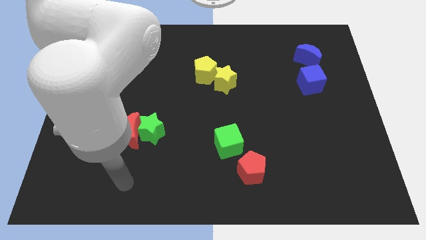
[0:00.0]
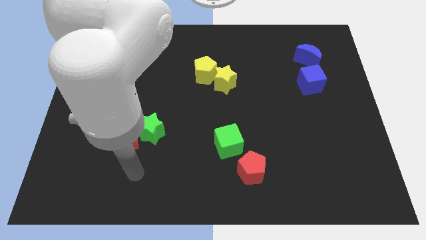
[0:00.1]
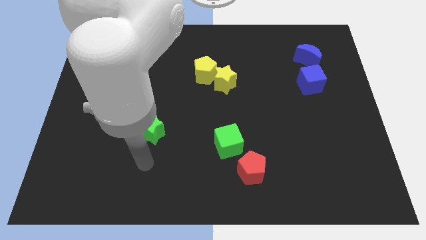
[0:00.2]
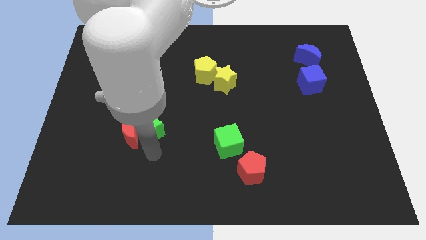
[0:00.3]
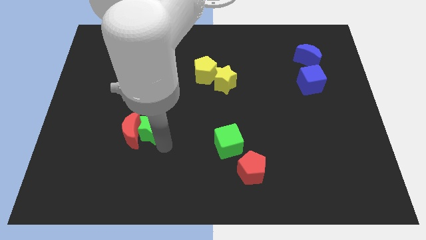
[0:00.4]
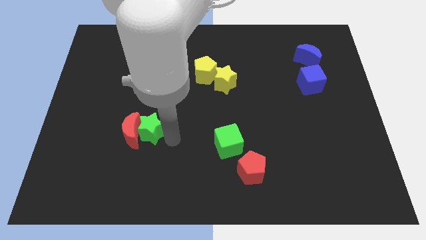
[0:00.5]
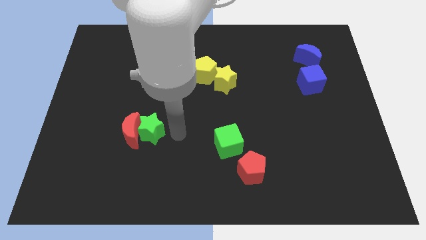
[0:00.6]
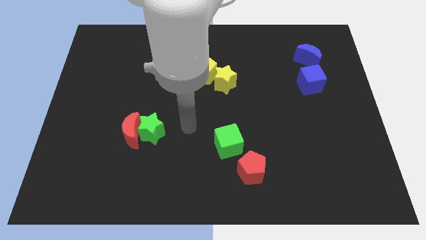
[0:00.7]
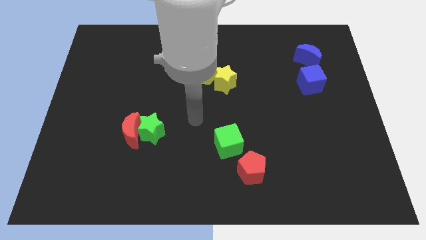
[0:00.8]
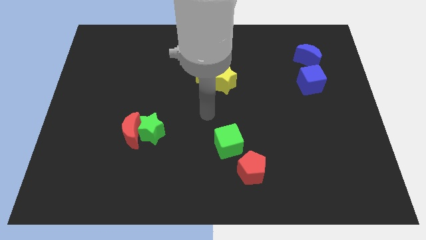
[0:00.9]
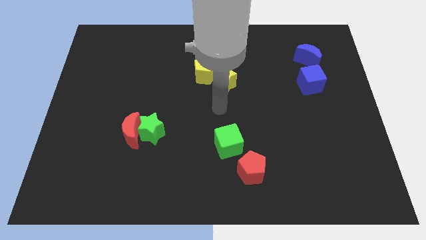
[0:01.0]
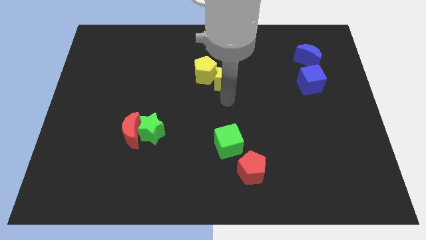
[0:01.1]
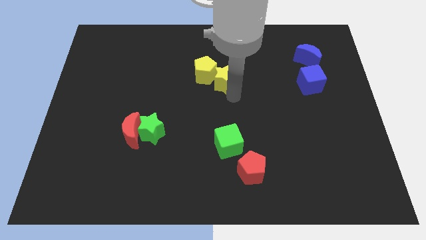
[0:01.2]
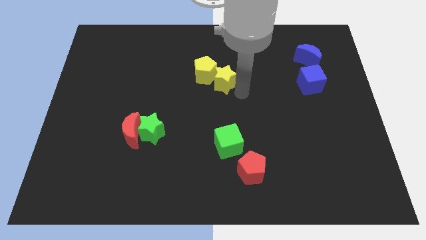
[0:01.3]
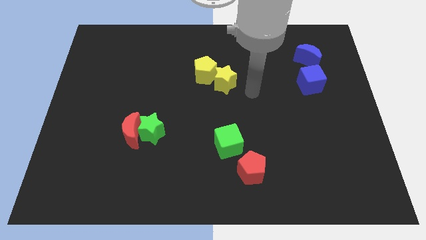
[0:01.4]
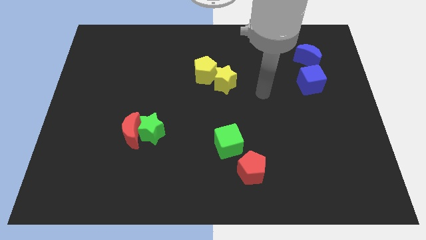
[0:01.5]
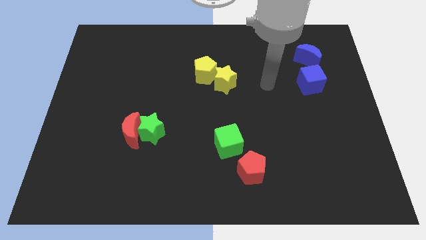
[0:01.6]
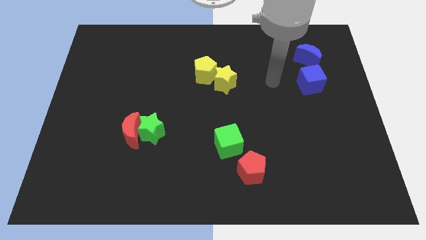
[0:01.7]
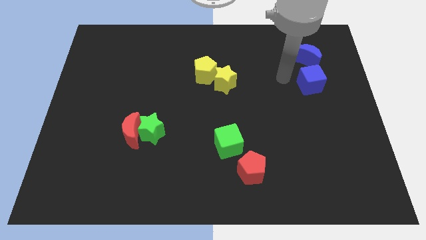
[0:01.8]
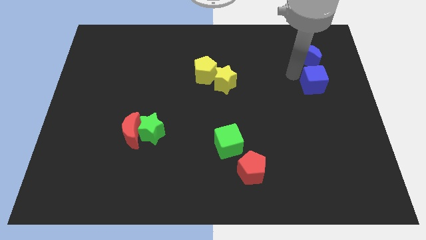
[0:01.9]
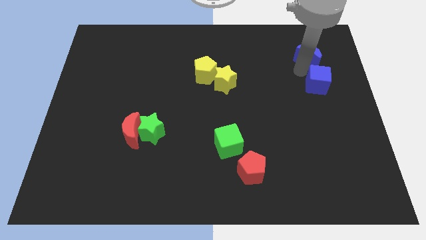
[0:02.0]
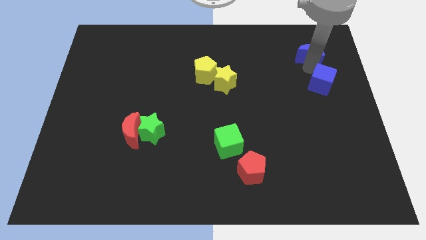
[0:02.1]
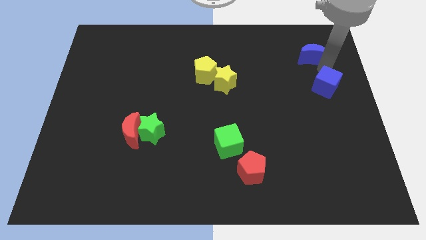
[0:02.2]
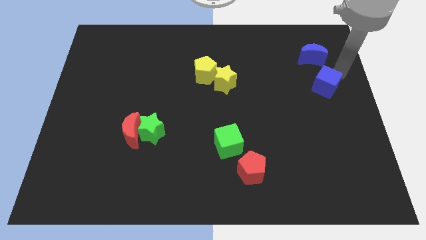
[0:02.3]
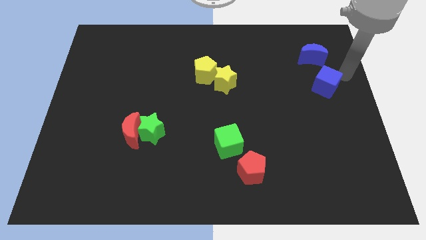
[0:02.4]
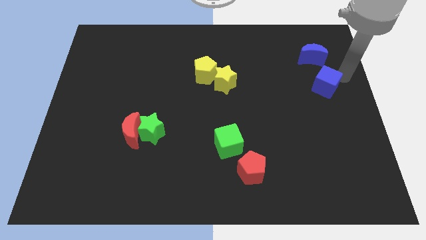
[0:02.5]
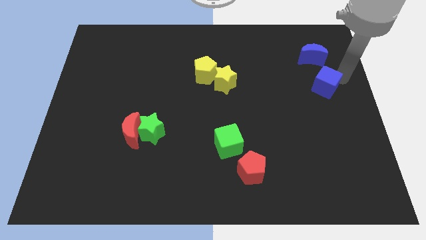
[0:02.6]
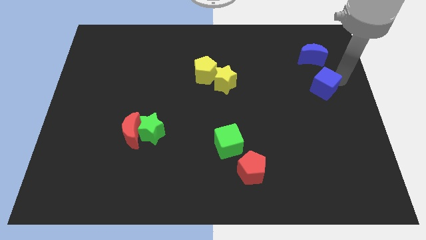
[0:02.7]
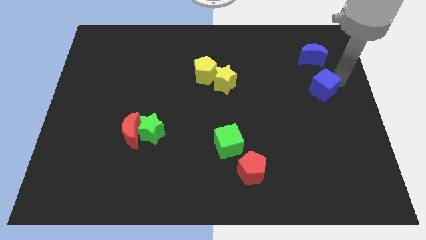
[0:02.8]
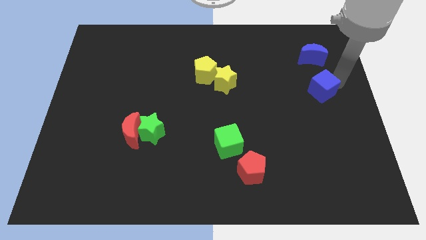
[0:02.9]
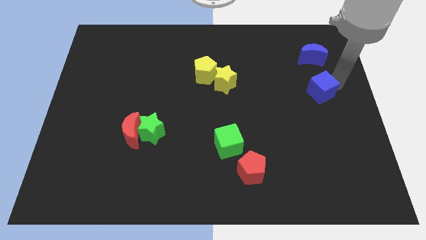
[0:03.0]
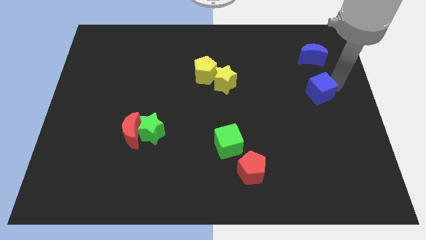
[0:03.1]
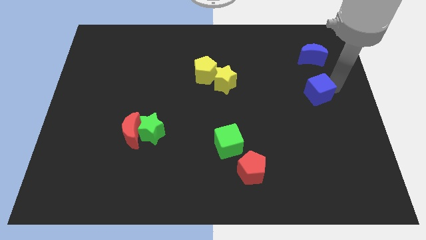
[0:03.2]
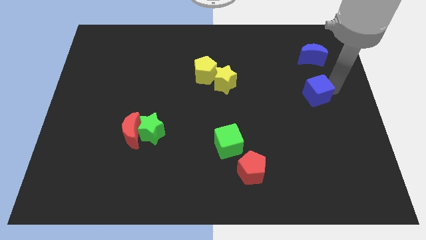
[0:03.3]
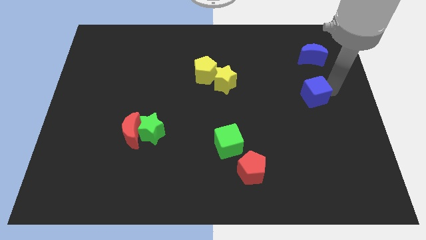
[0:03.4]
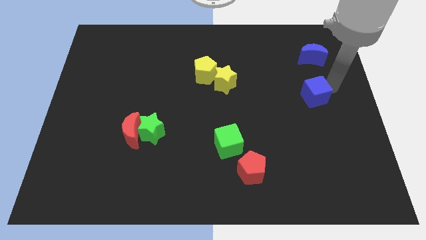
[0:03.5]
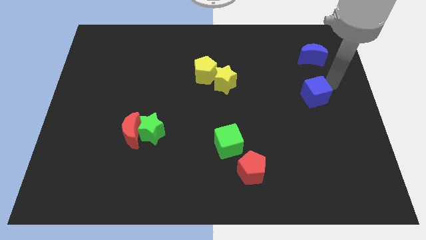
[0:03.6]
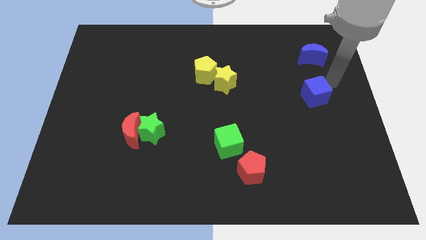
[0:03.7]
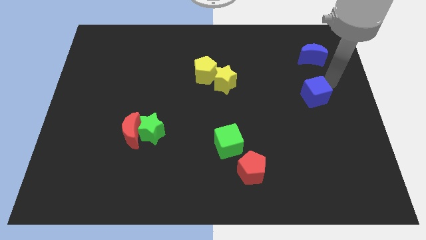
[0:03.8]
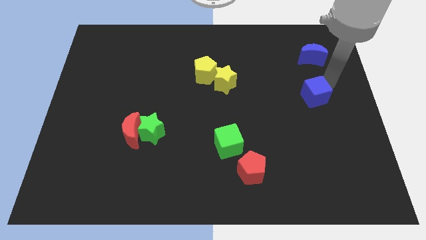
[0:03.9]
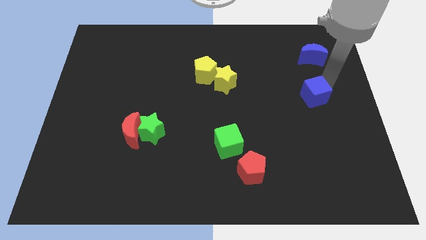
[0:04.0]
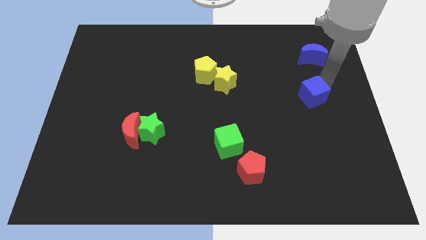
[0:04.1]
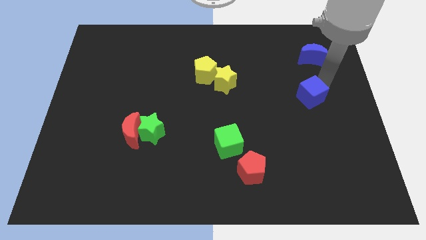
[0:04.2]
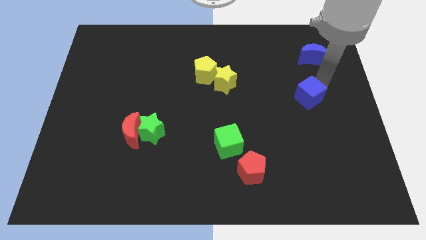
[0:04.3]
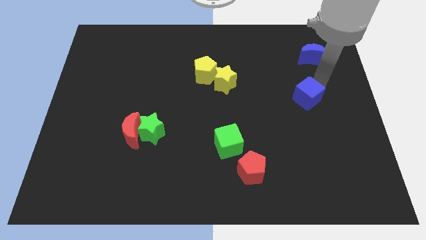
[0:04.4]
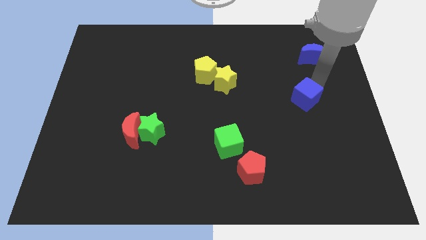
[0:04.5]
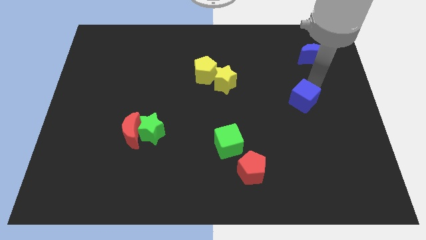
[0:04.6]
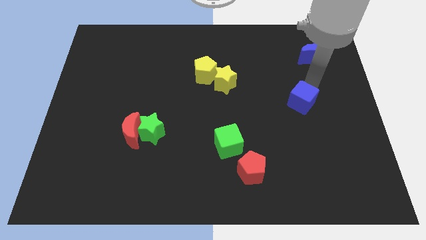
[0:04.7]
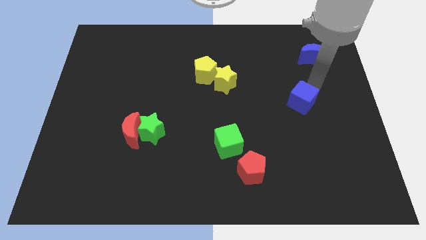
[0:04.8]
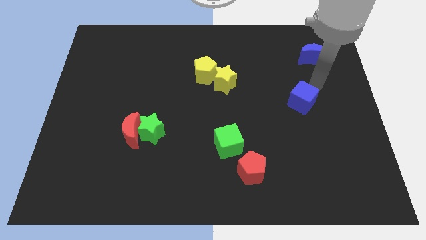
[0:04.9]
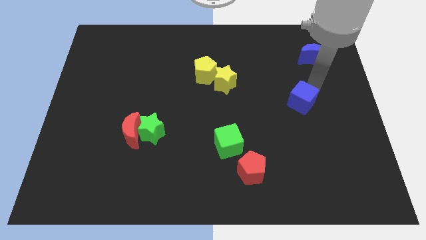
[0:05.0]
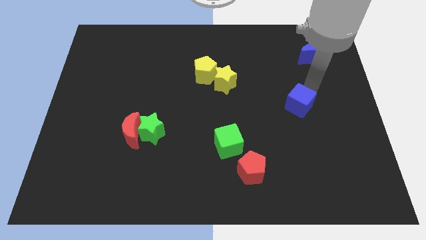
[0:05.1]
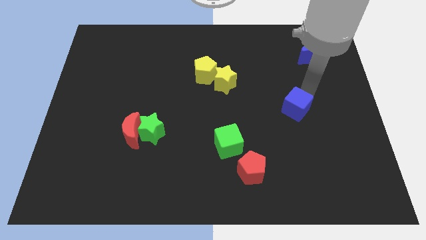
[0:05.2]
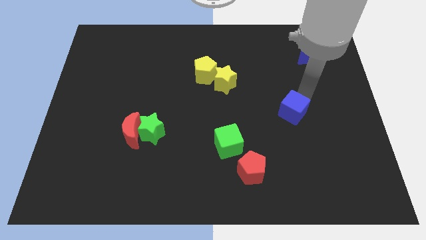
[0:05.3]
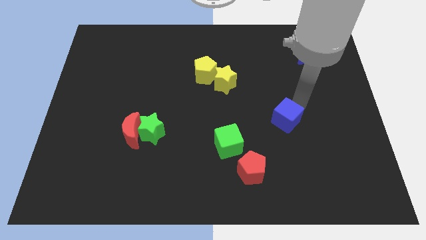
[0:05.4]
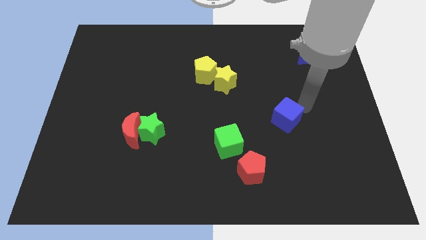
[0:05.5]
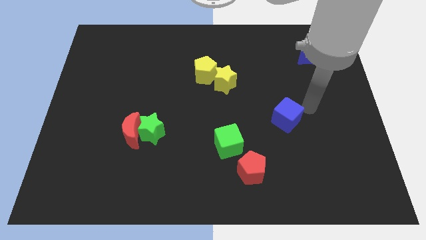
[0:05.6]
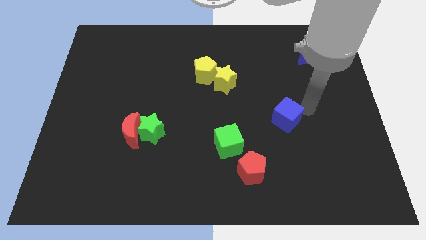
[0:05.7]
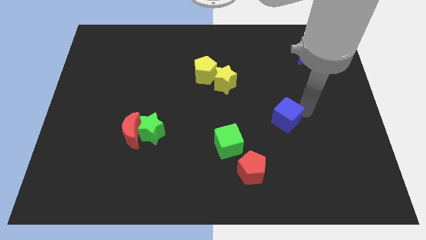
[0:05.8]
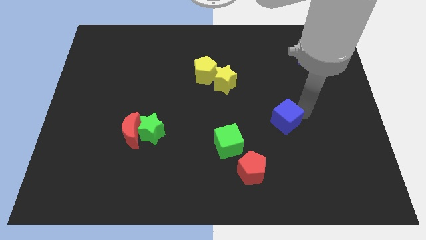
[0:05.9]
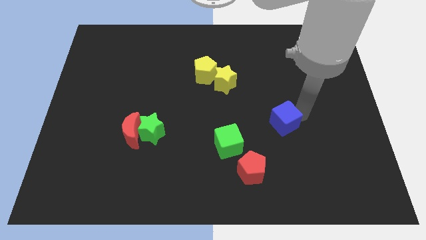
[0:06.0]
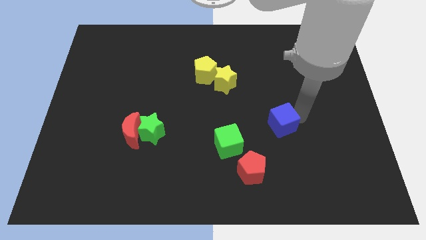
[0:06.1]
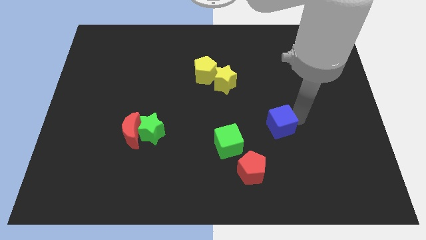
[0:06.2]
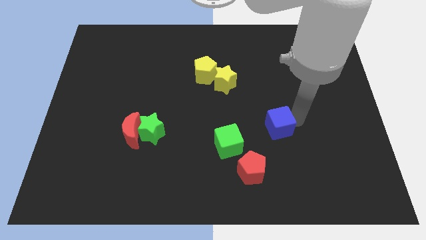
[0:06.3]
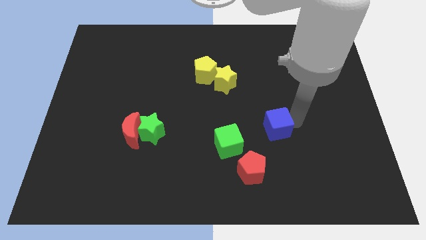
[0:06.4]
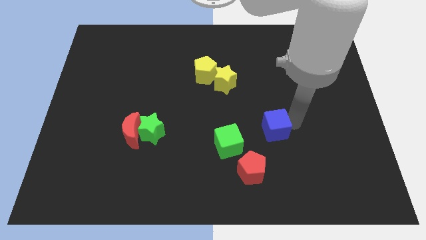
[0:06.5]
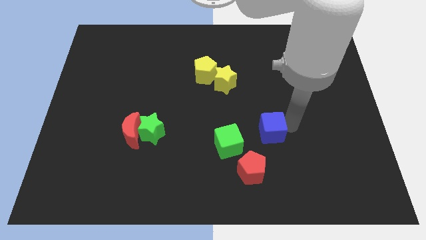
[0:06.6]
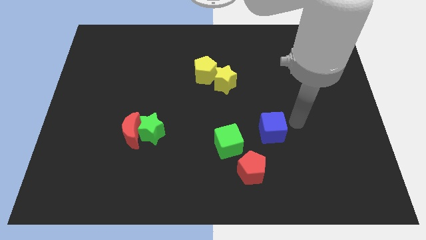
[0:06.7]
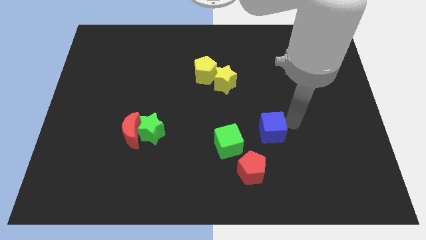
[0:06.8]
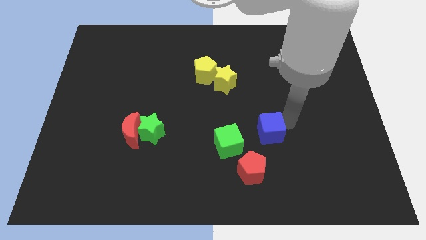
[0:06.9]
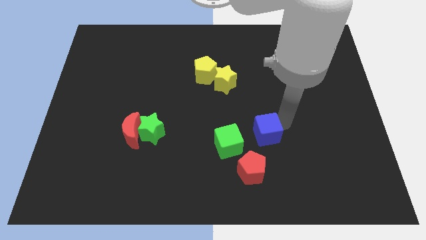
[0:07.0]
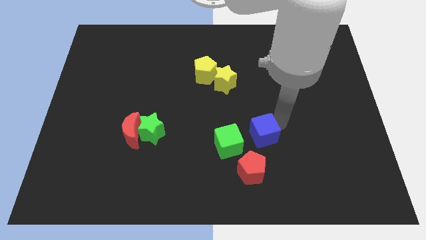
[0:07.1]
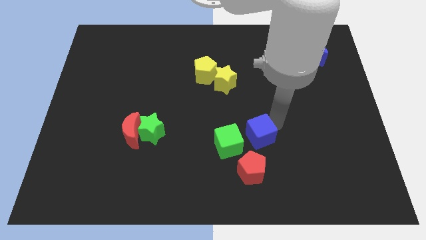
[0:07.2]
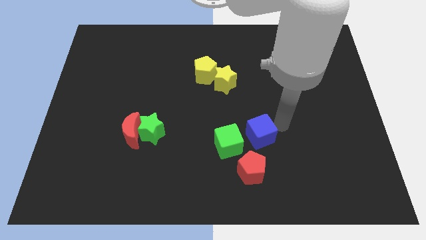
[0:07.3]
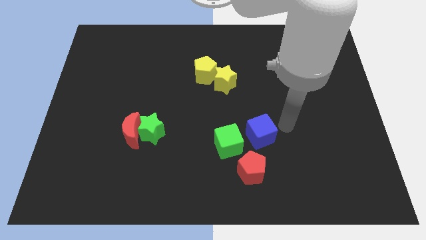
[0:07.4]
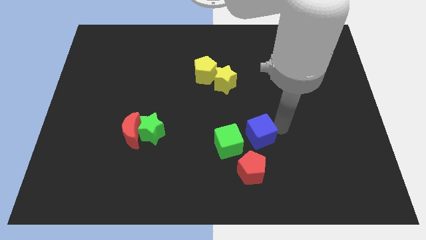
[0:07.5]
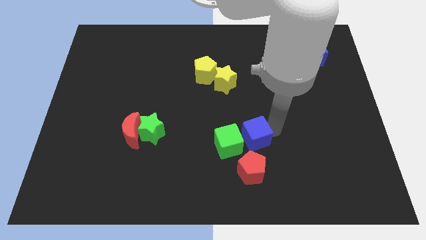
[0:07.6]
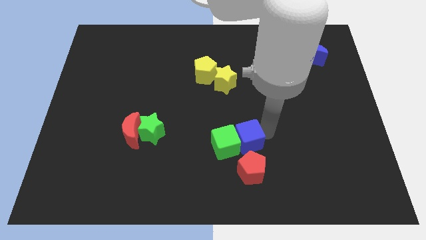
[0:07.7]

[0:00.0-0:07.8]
slide the blue cube next to the green cube
